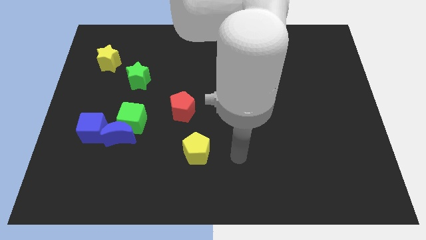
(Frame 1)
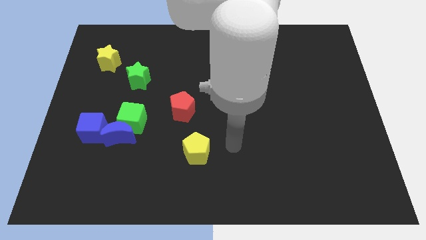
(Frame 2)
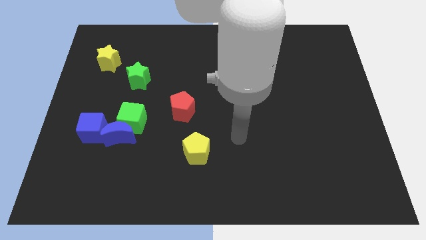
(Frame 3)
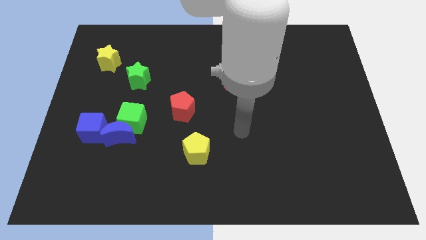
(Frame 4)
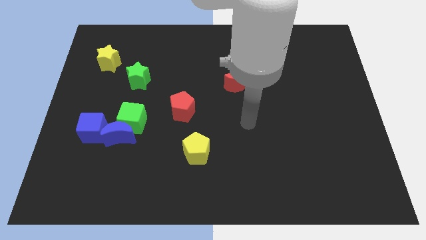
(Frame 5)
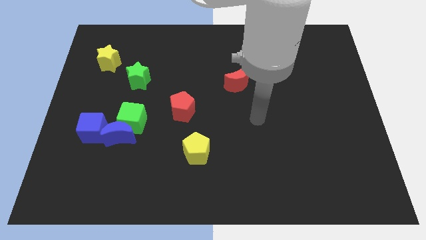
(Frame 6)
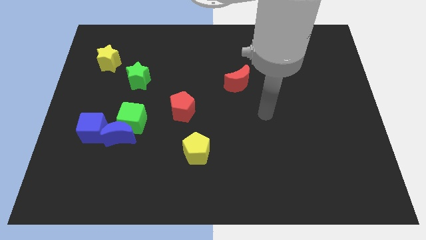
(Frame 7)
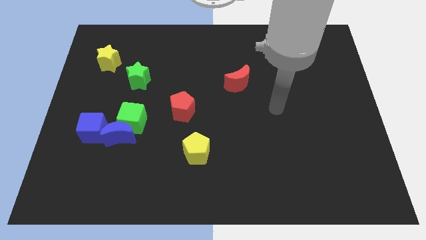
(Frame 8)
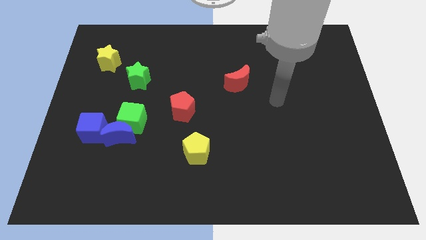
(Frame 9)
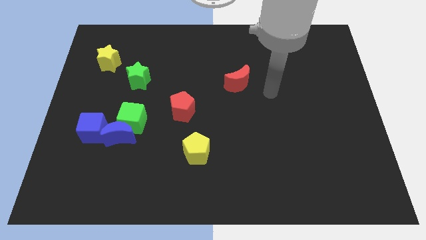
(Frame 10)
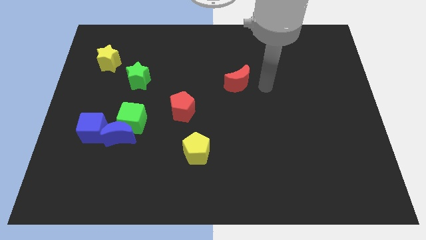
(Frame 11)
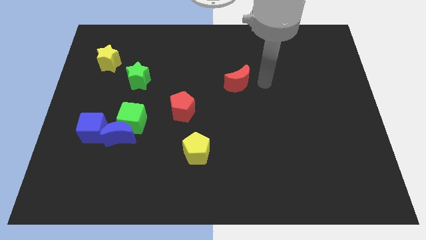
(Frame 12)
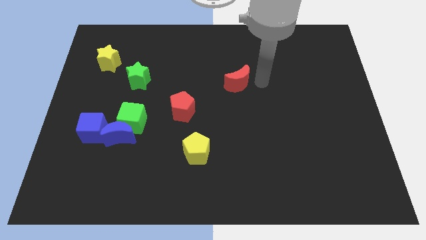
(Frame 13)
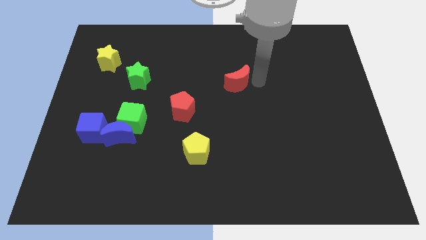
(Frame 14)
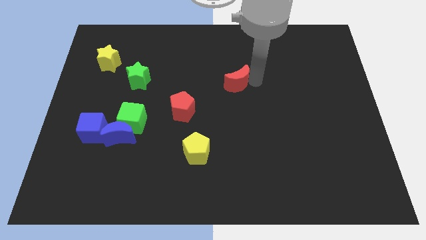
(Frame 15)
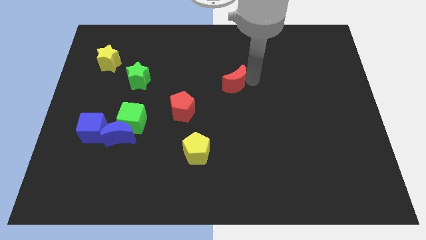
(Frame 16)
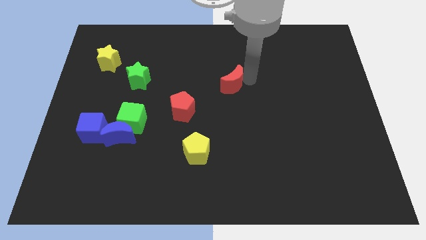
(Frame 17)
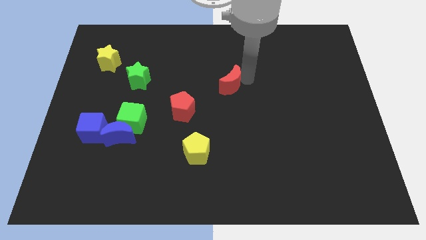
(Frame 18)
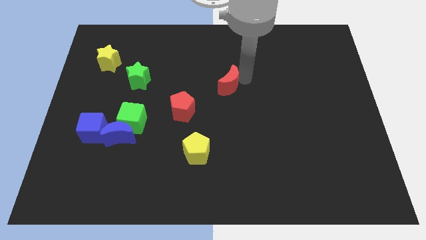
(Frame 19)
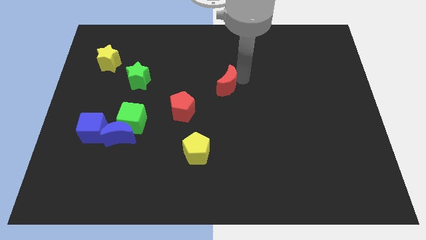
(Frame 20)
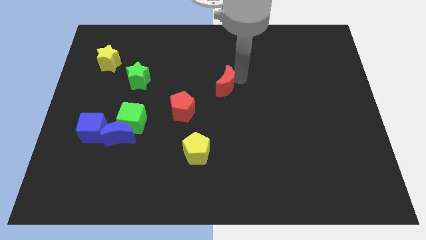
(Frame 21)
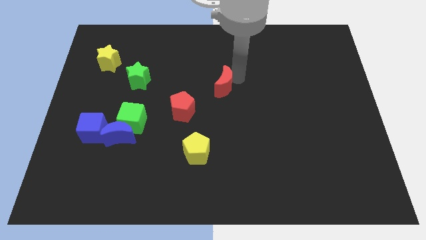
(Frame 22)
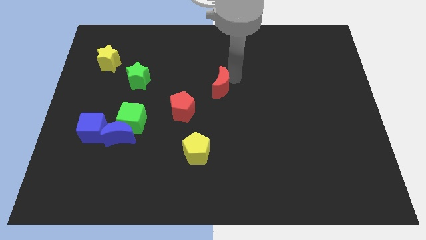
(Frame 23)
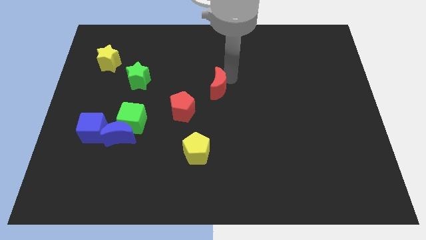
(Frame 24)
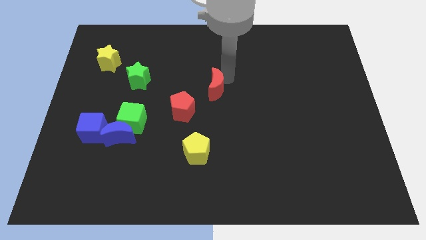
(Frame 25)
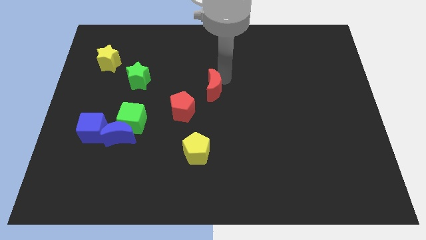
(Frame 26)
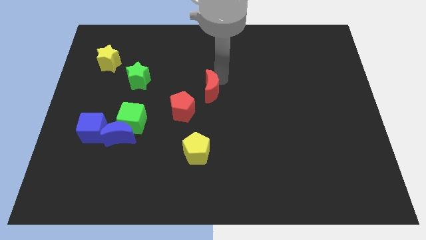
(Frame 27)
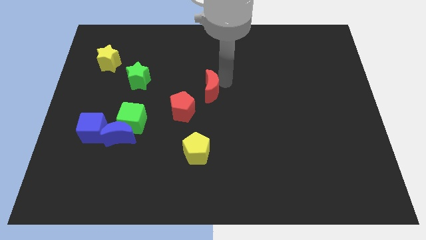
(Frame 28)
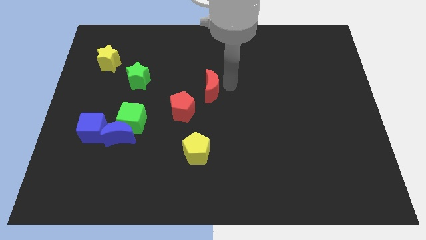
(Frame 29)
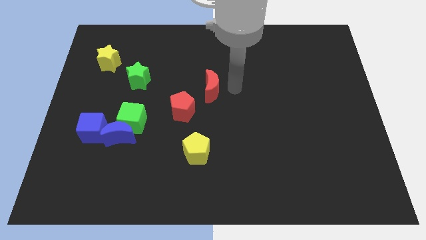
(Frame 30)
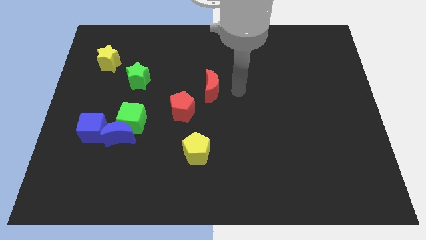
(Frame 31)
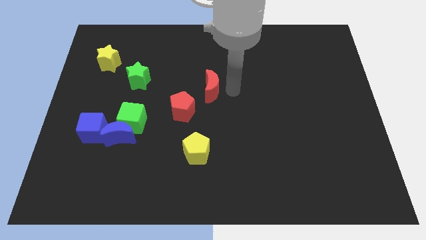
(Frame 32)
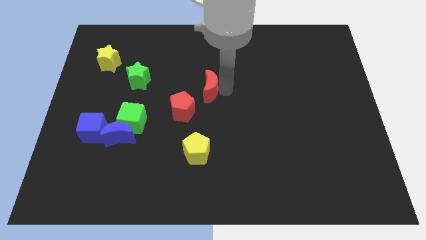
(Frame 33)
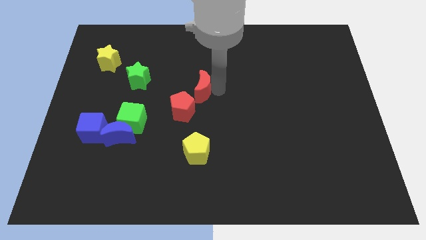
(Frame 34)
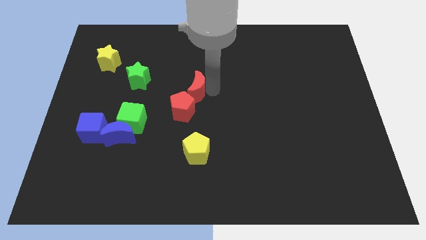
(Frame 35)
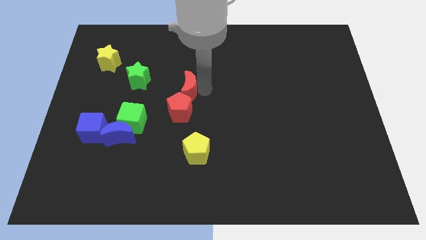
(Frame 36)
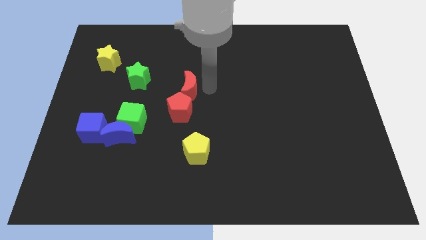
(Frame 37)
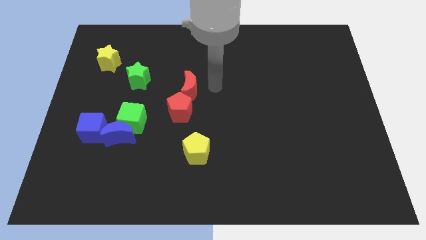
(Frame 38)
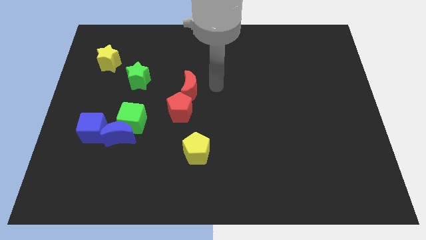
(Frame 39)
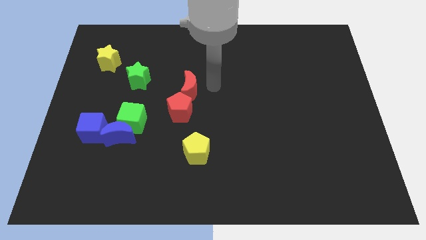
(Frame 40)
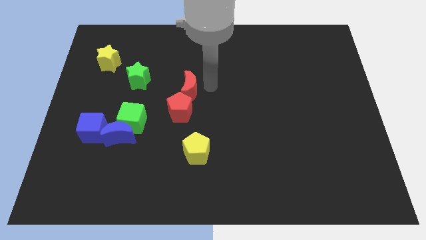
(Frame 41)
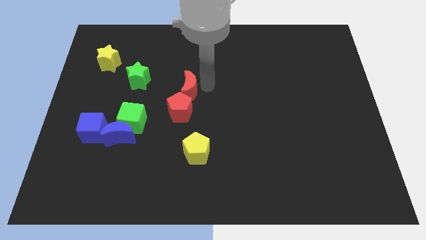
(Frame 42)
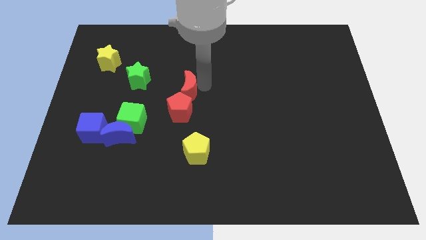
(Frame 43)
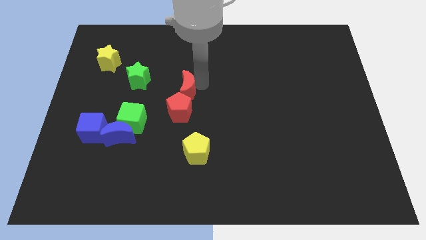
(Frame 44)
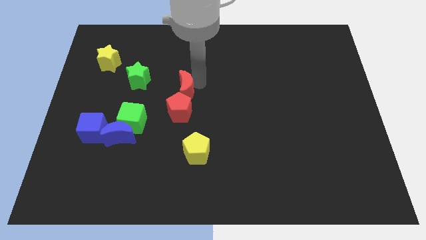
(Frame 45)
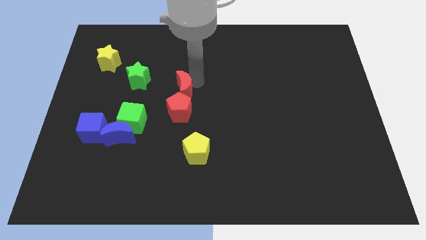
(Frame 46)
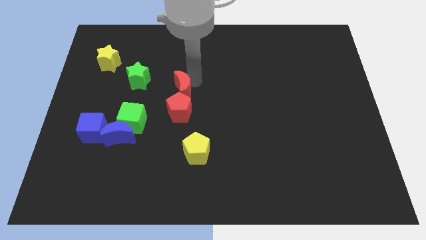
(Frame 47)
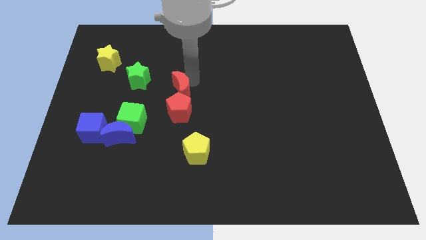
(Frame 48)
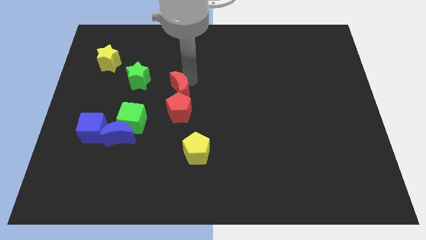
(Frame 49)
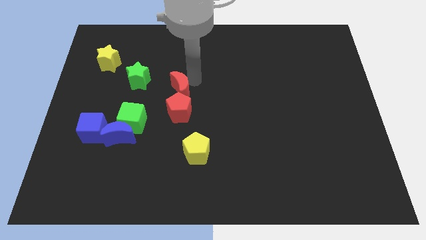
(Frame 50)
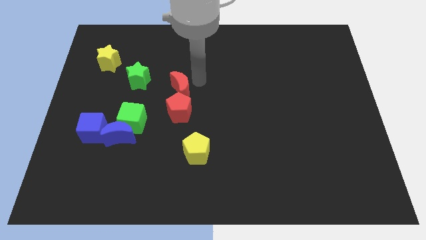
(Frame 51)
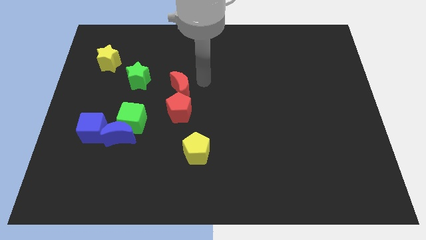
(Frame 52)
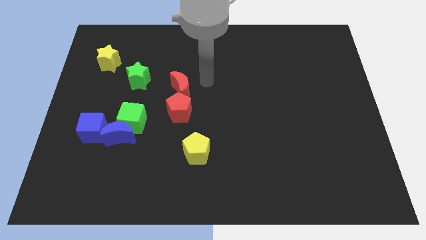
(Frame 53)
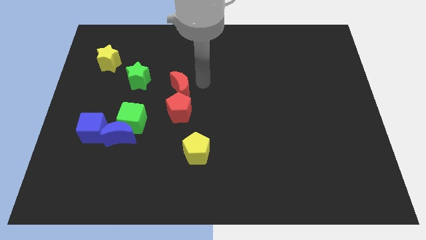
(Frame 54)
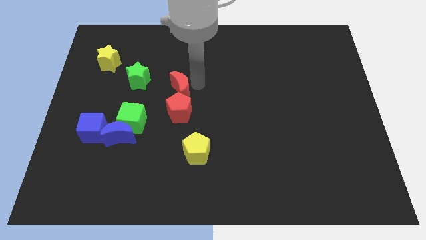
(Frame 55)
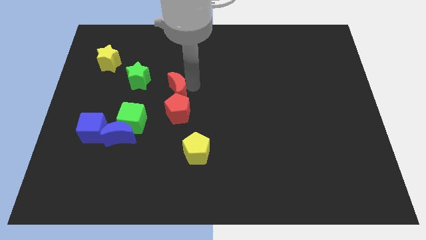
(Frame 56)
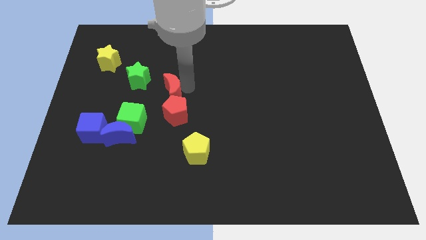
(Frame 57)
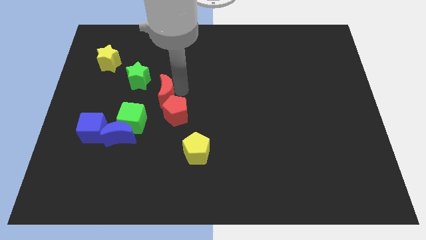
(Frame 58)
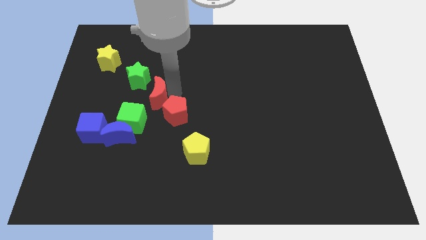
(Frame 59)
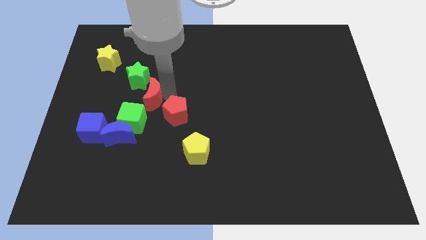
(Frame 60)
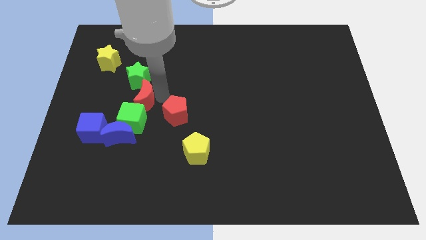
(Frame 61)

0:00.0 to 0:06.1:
move the red moon to the top side of the blue moon
